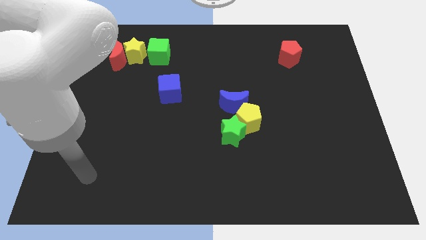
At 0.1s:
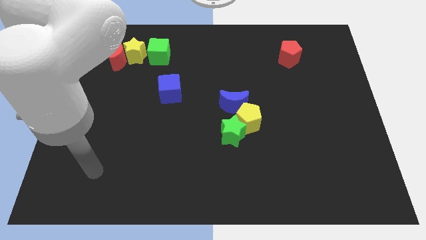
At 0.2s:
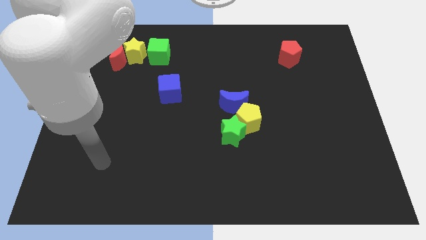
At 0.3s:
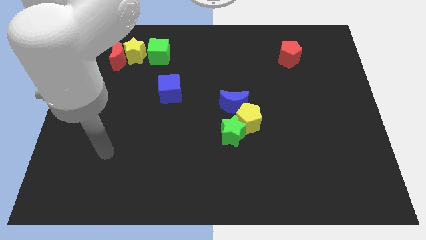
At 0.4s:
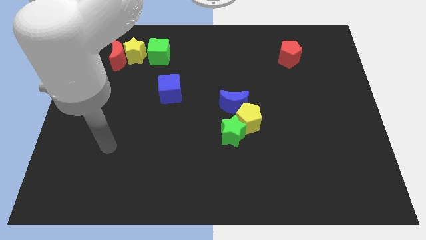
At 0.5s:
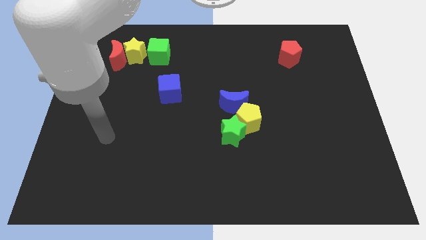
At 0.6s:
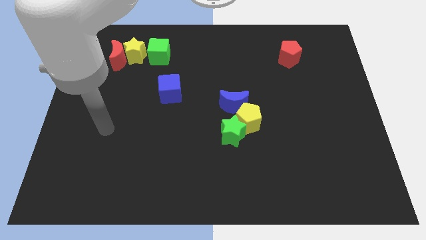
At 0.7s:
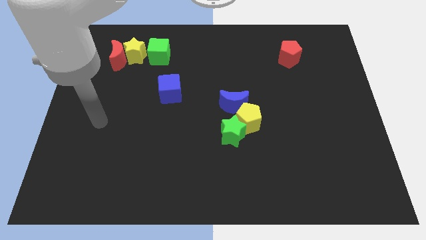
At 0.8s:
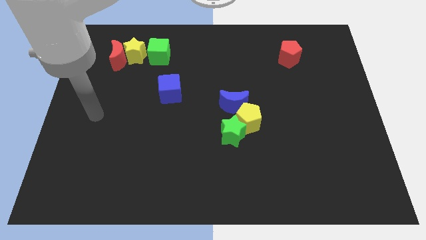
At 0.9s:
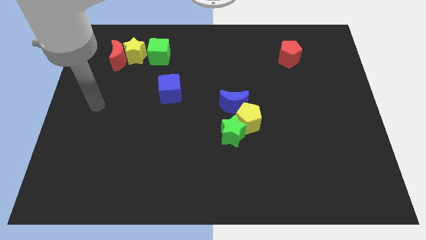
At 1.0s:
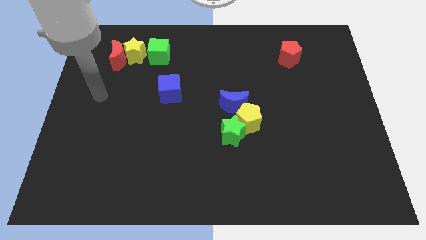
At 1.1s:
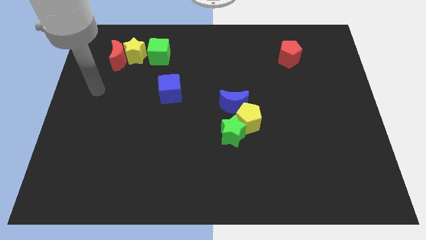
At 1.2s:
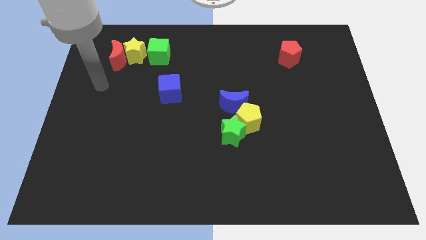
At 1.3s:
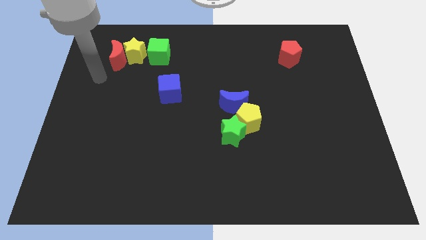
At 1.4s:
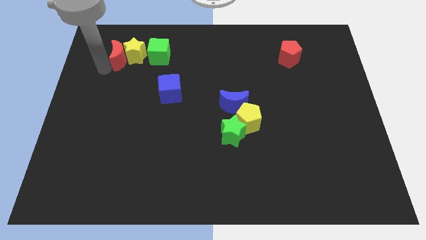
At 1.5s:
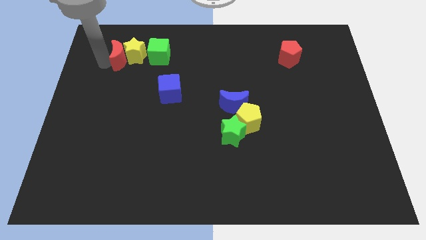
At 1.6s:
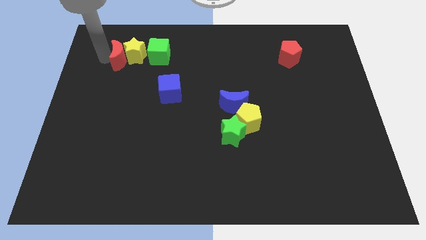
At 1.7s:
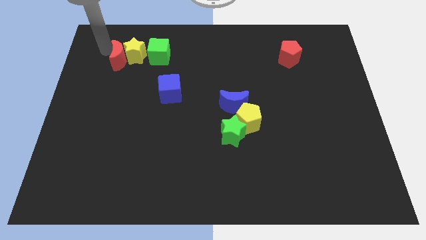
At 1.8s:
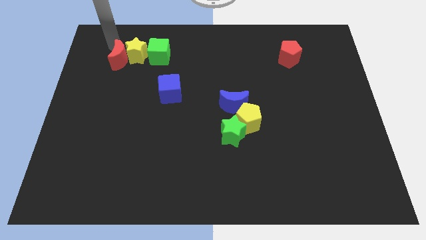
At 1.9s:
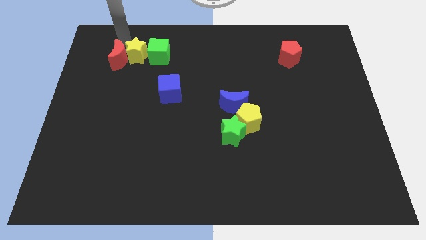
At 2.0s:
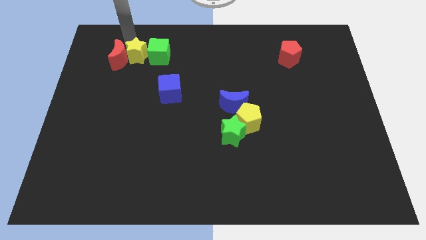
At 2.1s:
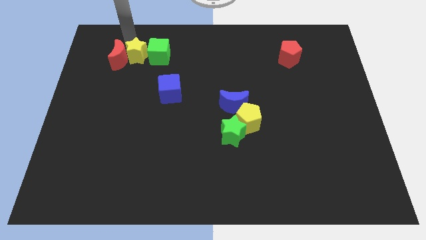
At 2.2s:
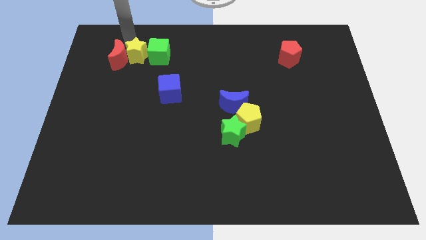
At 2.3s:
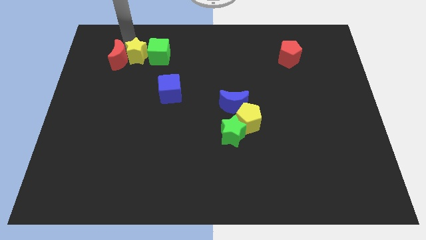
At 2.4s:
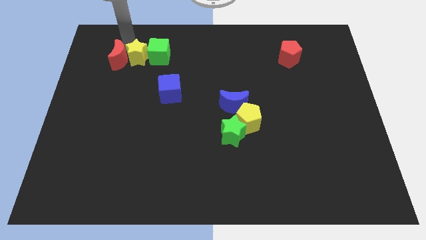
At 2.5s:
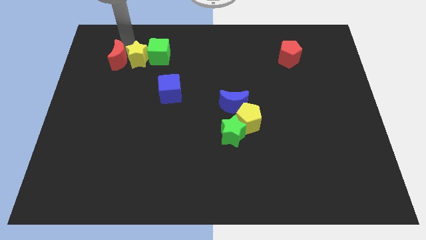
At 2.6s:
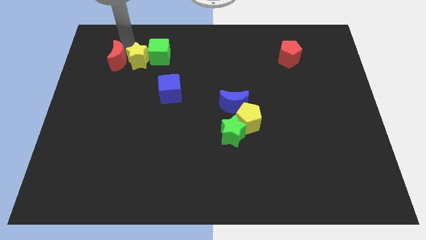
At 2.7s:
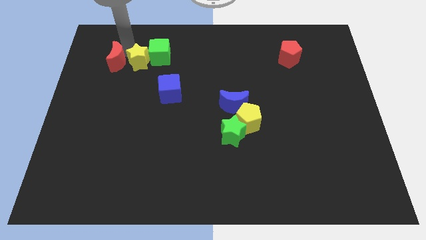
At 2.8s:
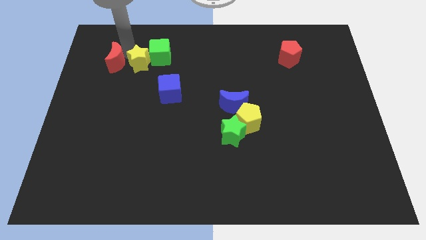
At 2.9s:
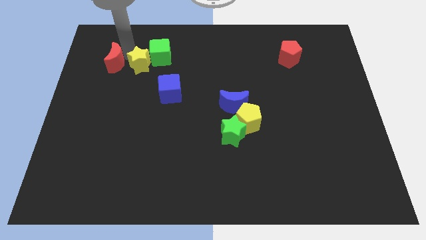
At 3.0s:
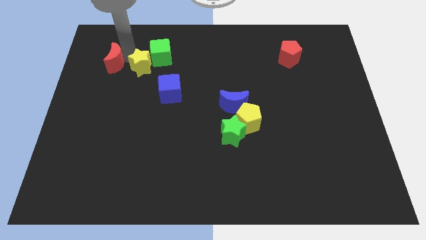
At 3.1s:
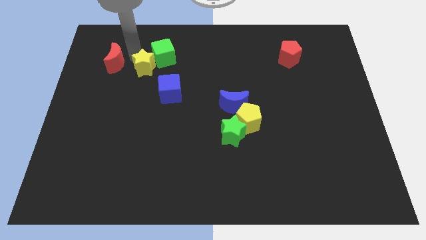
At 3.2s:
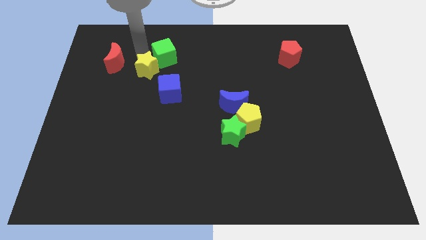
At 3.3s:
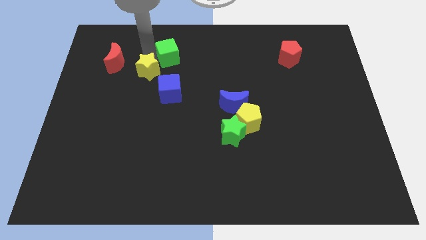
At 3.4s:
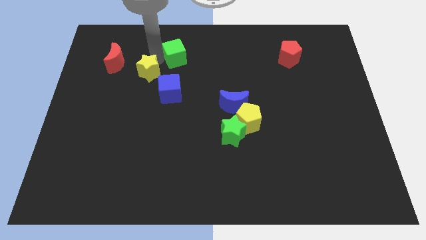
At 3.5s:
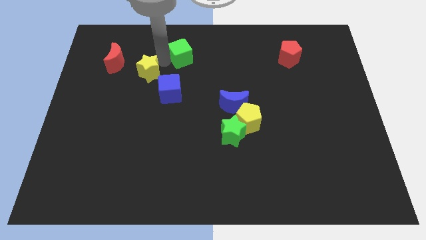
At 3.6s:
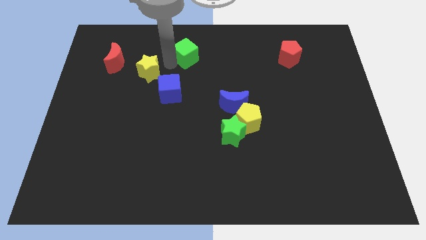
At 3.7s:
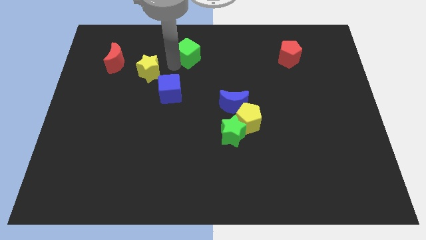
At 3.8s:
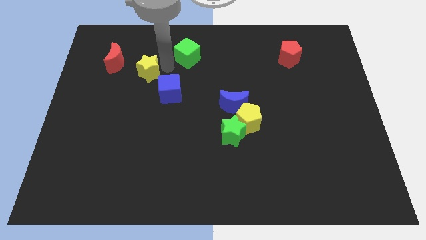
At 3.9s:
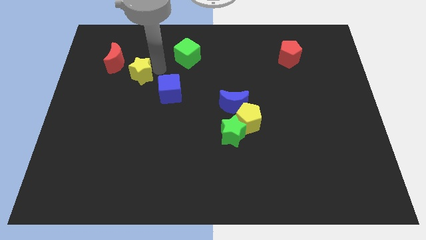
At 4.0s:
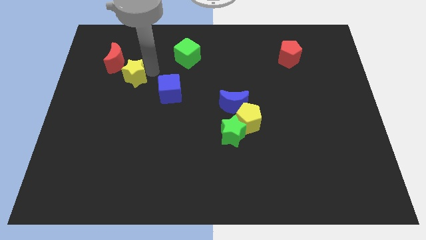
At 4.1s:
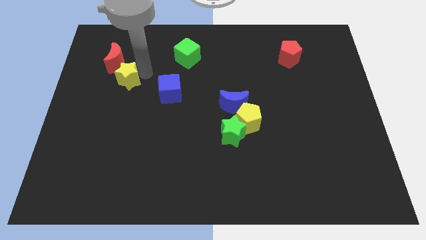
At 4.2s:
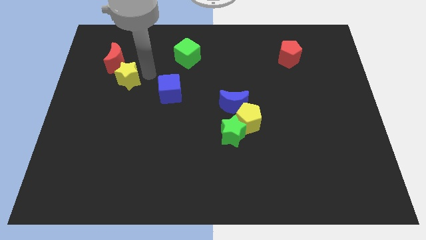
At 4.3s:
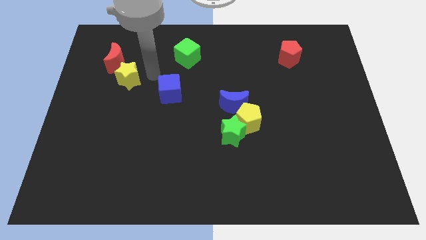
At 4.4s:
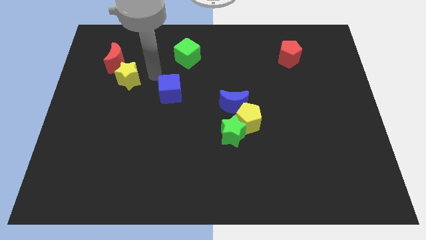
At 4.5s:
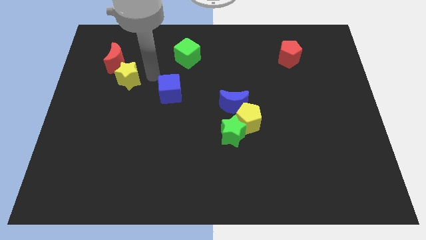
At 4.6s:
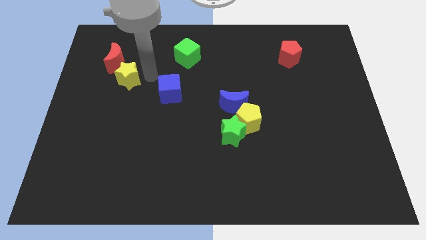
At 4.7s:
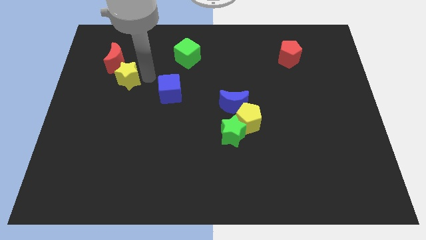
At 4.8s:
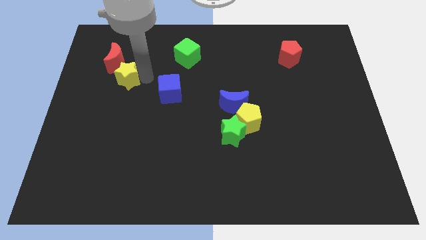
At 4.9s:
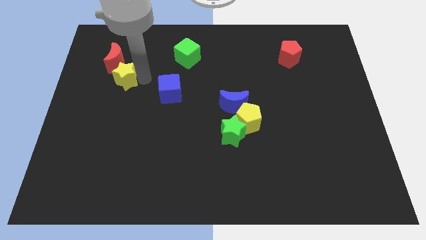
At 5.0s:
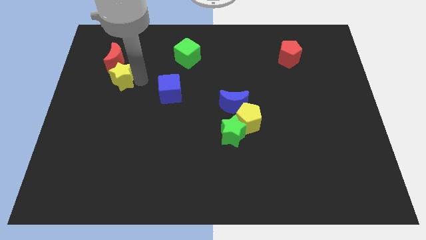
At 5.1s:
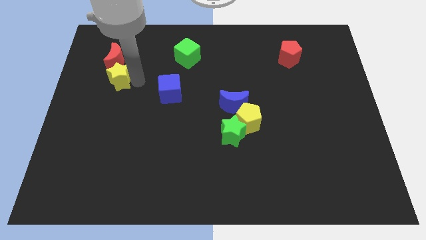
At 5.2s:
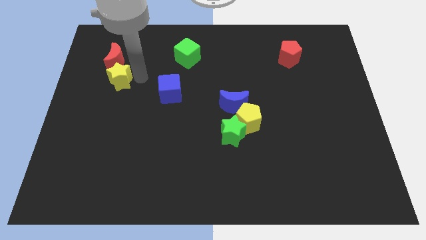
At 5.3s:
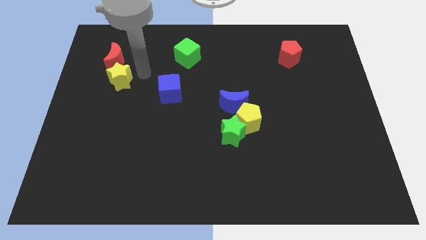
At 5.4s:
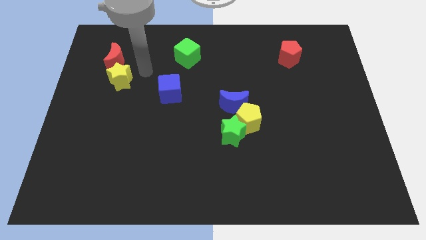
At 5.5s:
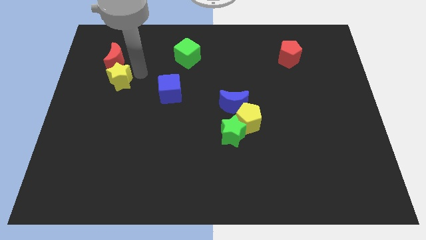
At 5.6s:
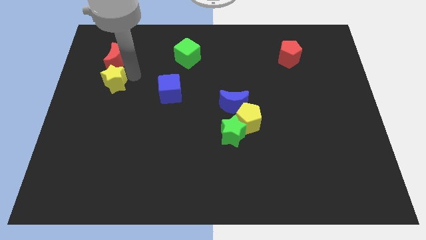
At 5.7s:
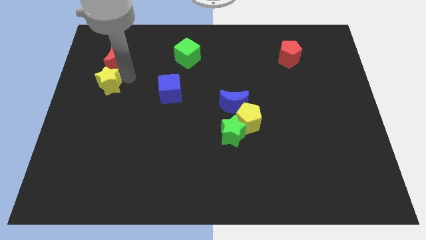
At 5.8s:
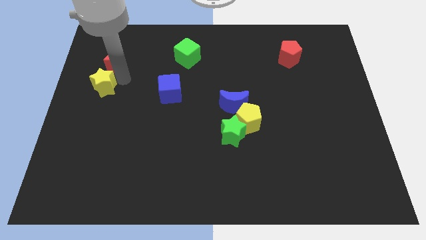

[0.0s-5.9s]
put the yellow star to the center left

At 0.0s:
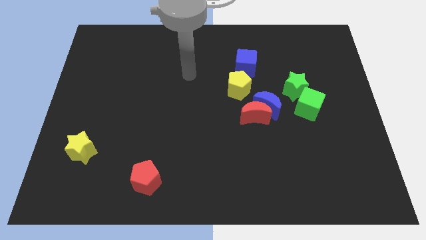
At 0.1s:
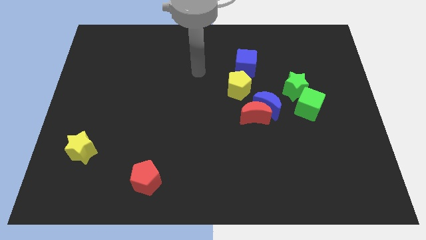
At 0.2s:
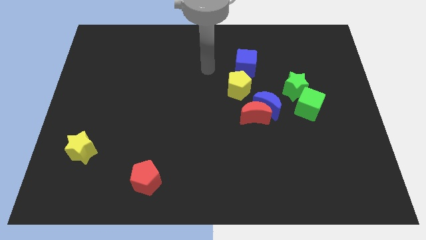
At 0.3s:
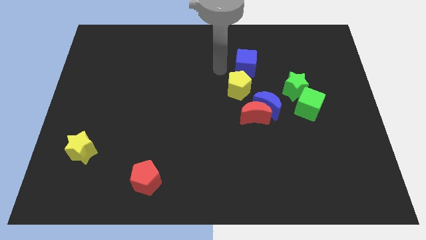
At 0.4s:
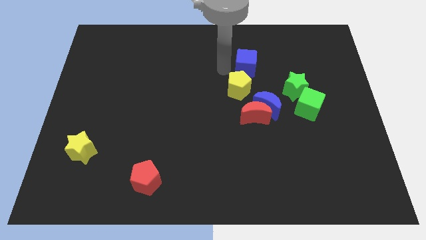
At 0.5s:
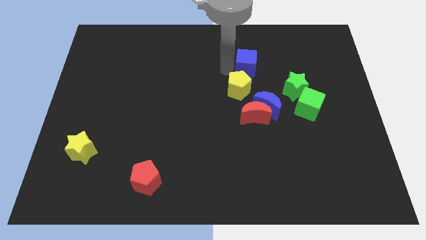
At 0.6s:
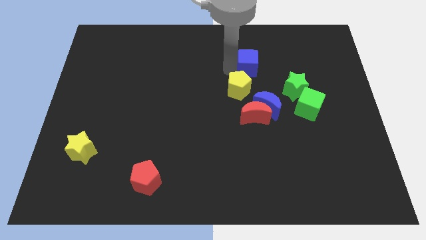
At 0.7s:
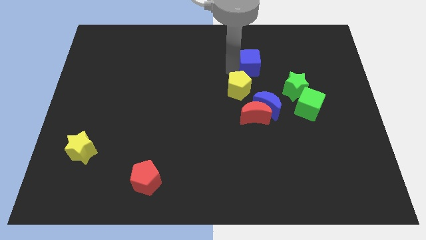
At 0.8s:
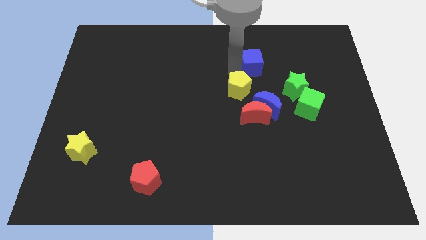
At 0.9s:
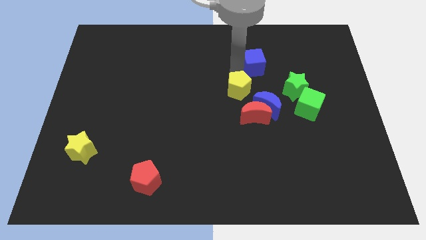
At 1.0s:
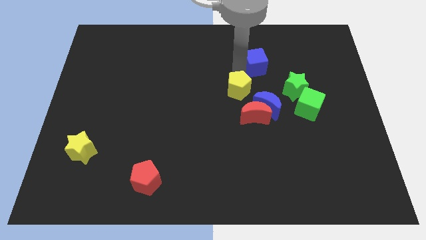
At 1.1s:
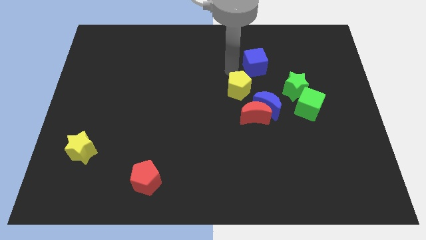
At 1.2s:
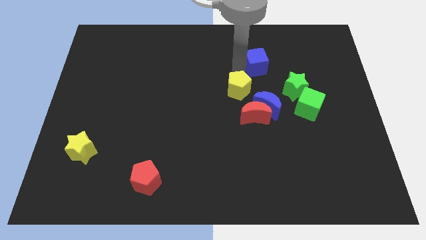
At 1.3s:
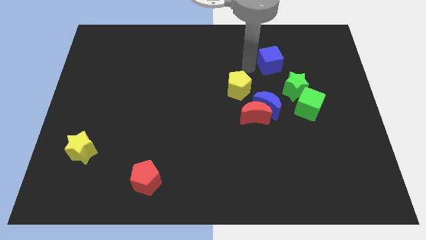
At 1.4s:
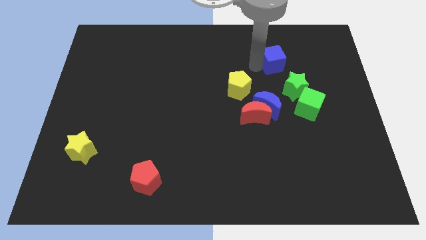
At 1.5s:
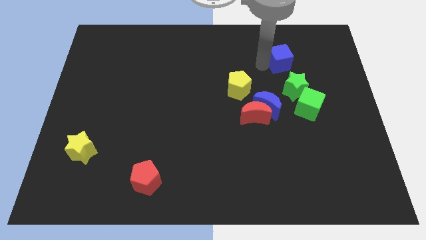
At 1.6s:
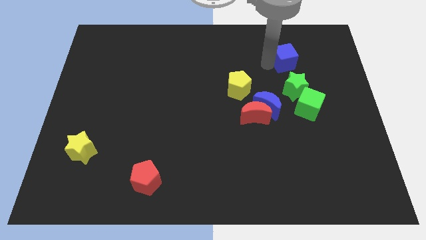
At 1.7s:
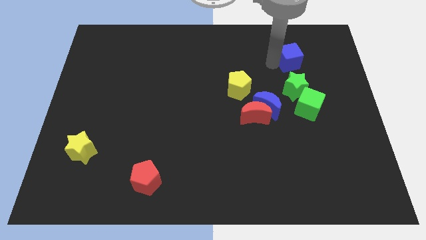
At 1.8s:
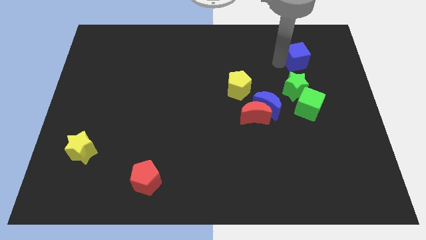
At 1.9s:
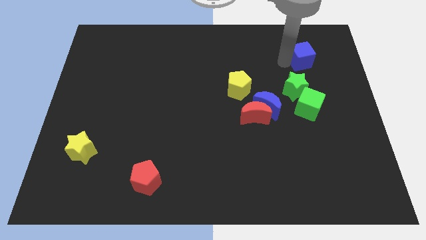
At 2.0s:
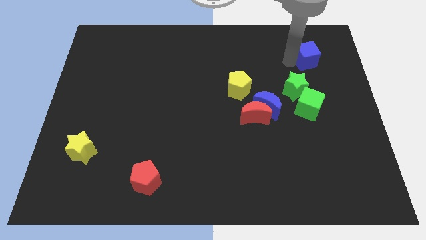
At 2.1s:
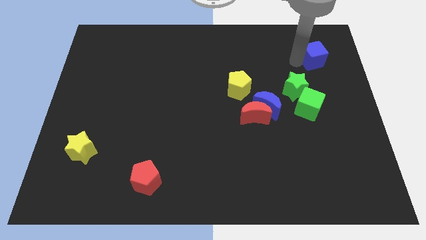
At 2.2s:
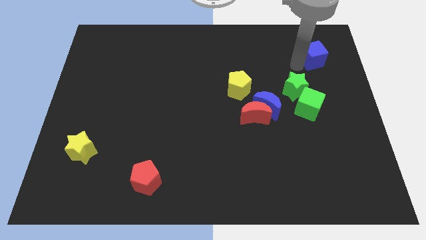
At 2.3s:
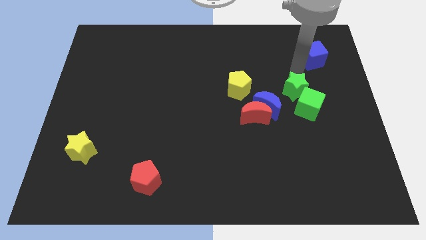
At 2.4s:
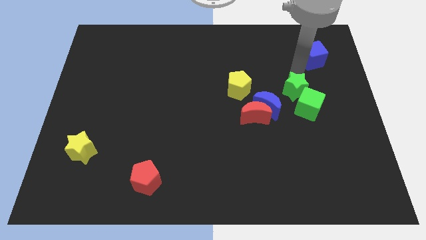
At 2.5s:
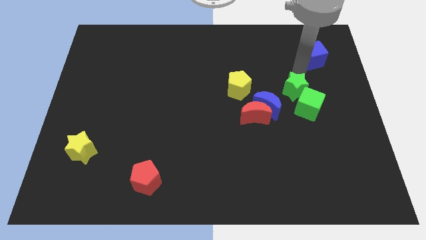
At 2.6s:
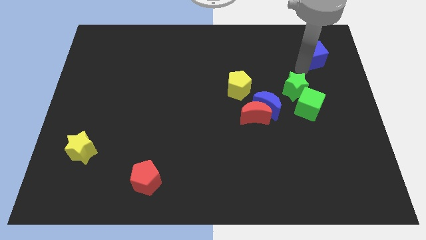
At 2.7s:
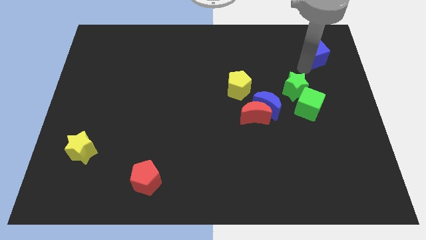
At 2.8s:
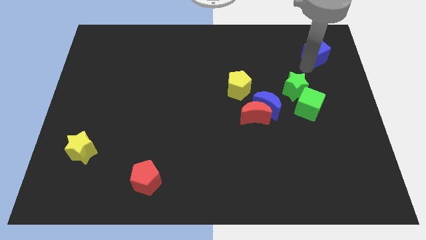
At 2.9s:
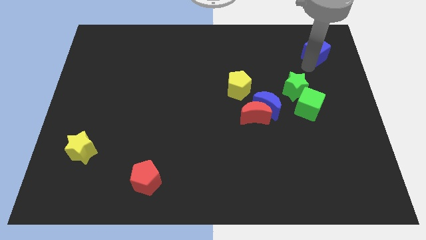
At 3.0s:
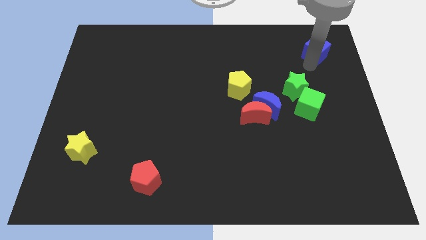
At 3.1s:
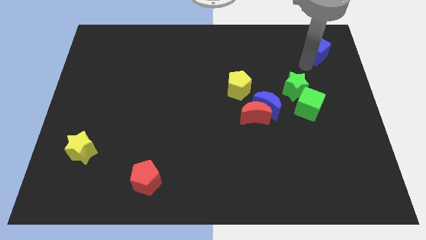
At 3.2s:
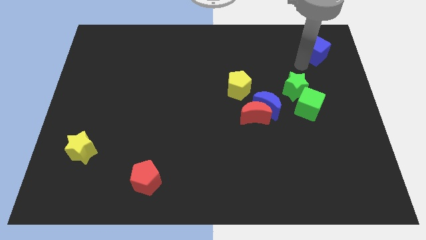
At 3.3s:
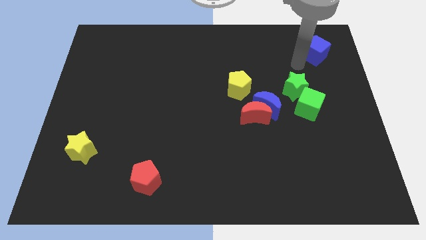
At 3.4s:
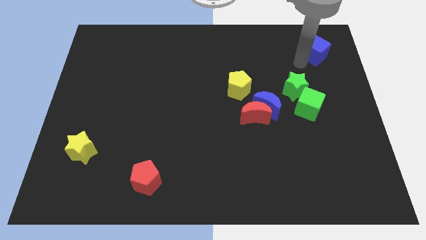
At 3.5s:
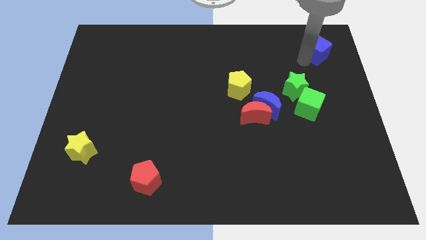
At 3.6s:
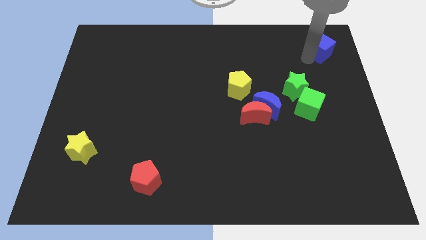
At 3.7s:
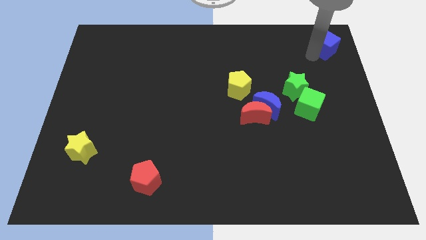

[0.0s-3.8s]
put the blue cube to the top right
